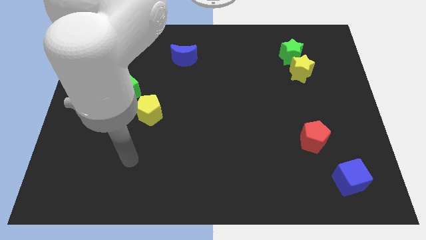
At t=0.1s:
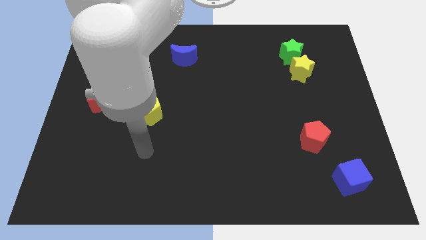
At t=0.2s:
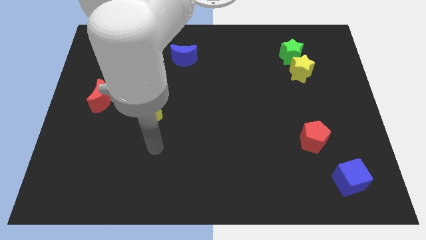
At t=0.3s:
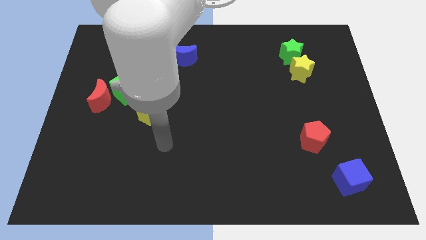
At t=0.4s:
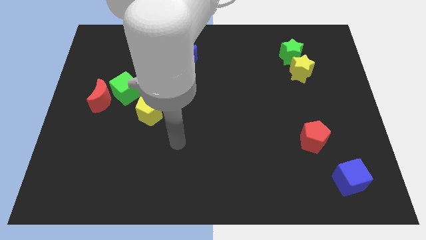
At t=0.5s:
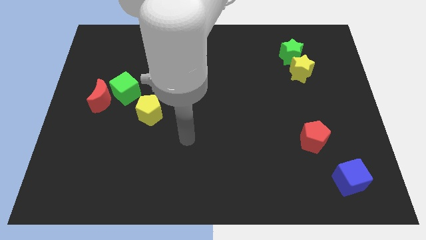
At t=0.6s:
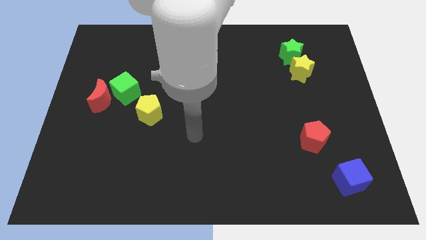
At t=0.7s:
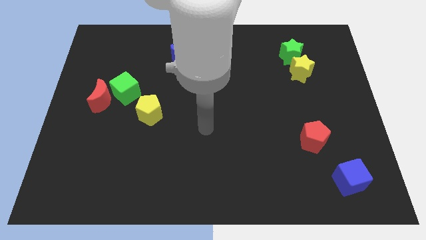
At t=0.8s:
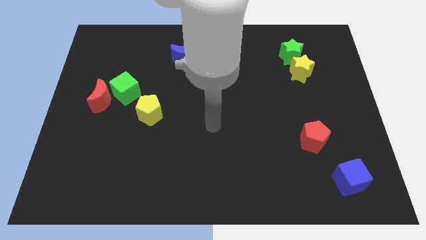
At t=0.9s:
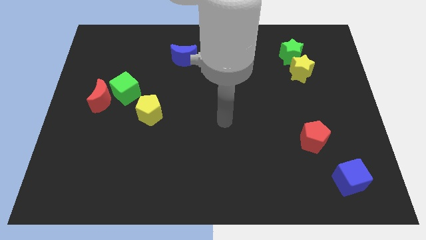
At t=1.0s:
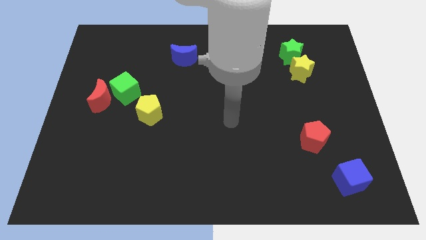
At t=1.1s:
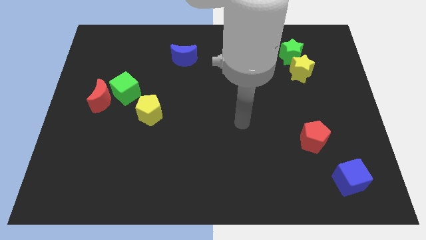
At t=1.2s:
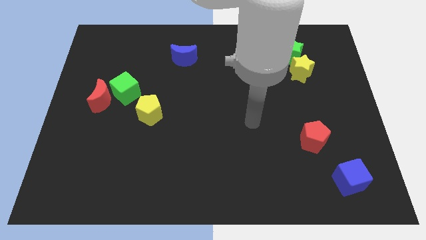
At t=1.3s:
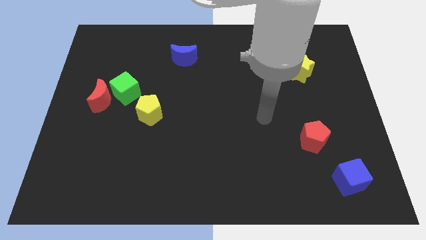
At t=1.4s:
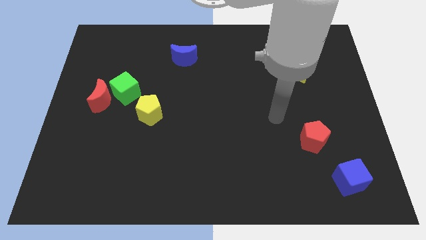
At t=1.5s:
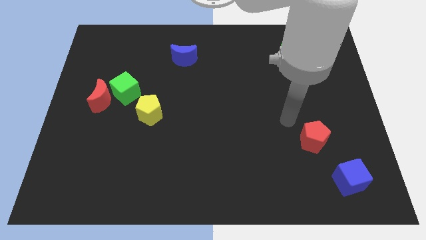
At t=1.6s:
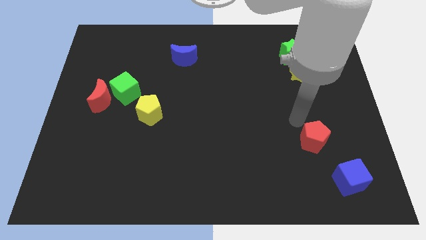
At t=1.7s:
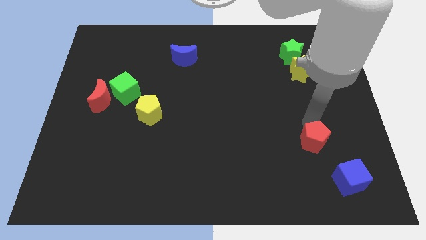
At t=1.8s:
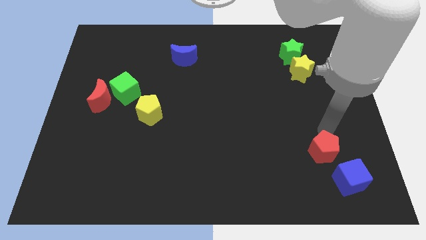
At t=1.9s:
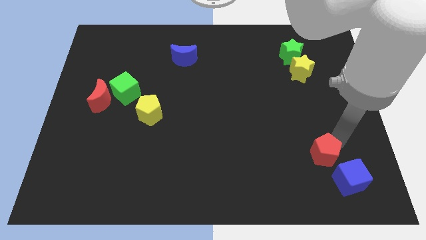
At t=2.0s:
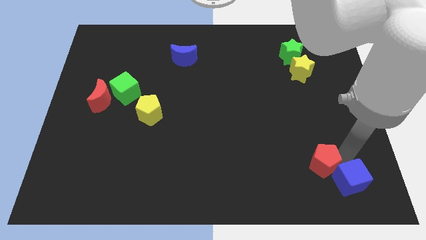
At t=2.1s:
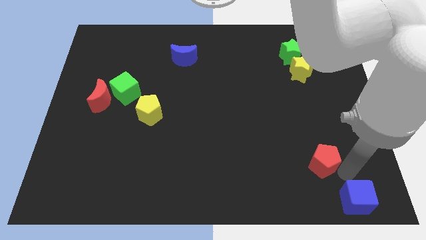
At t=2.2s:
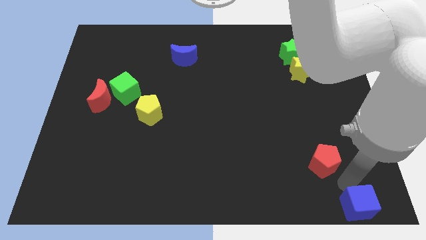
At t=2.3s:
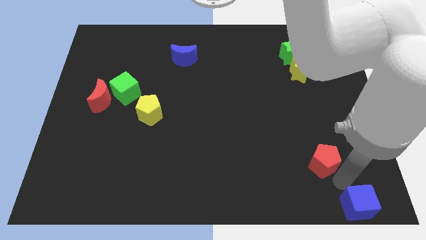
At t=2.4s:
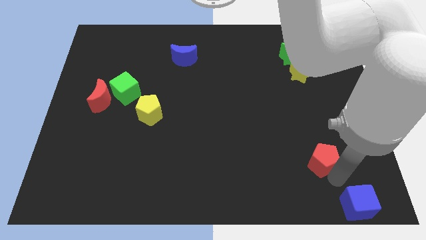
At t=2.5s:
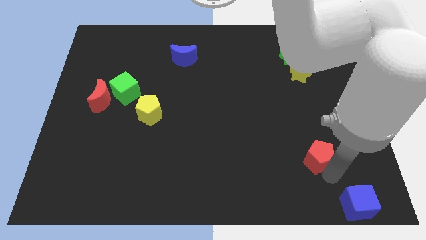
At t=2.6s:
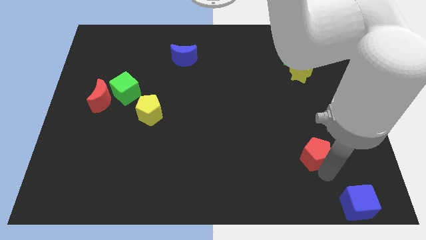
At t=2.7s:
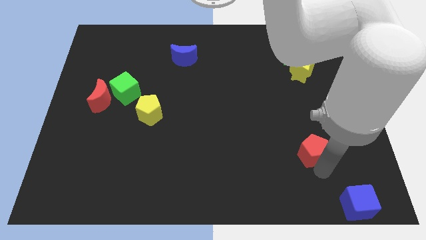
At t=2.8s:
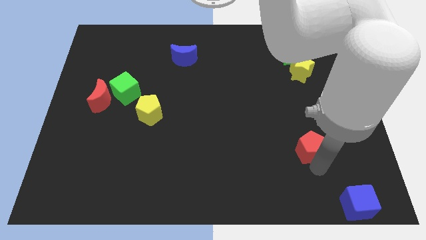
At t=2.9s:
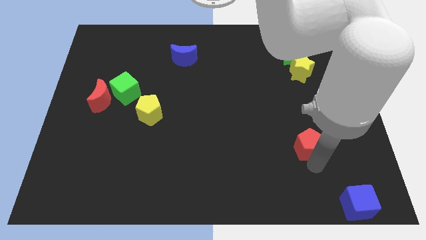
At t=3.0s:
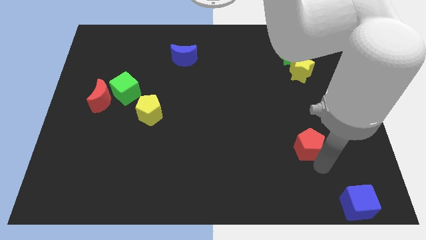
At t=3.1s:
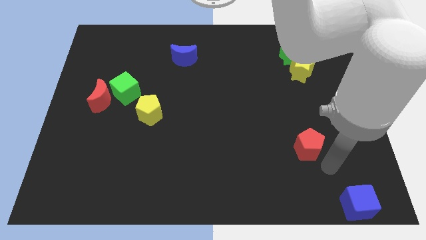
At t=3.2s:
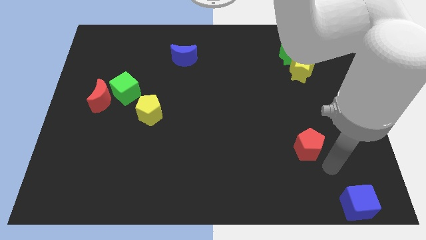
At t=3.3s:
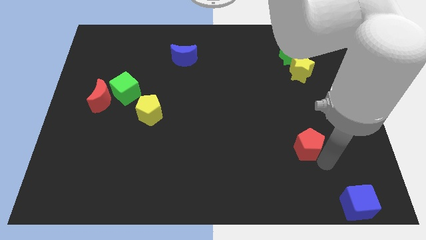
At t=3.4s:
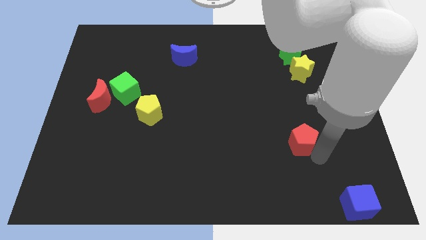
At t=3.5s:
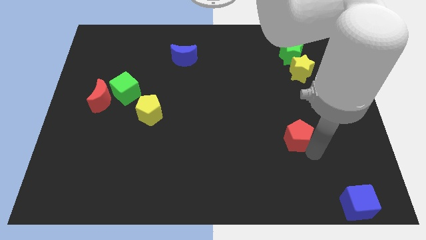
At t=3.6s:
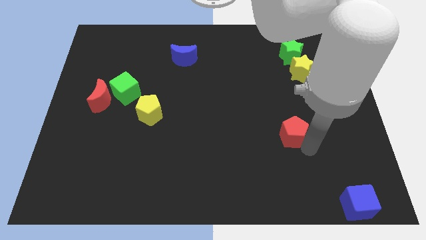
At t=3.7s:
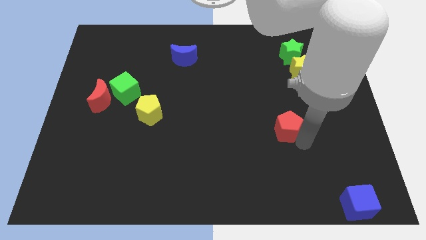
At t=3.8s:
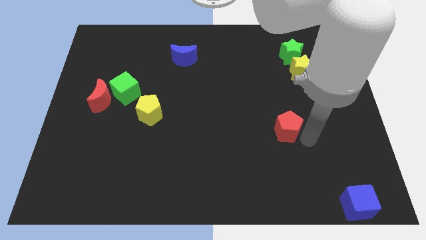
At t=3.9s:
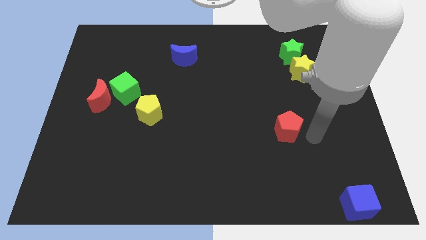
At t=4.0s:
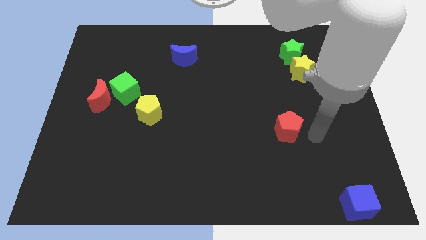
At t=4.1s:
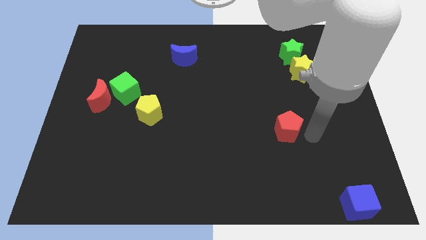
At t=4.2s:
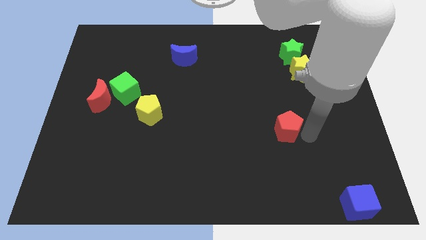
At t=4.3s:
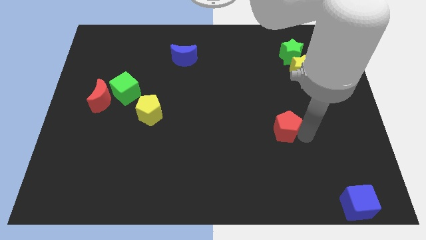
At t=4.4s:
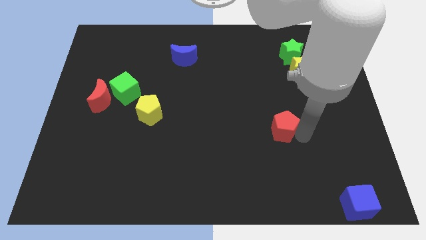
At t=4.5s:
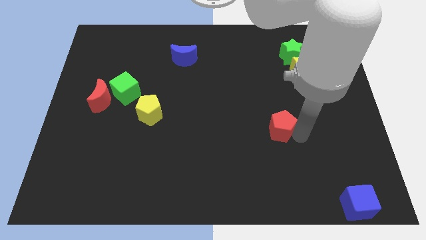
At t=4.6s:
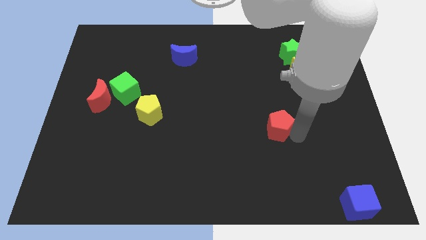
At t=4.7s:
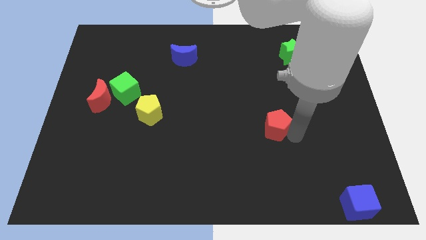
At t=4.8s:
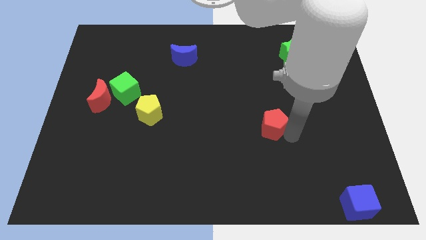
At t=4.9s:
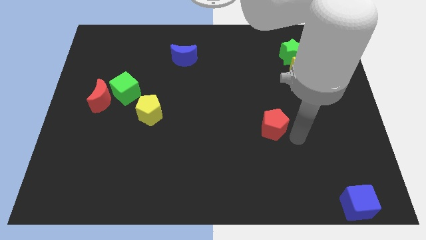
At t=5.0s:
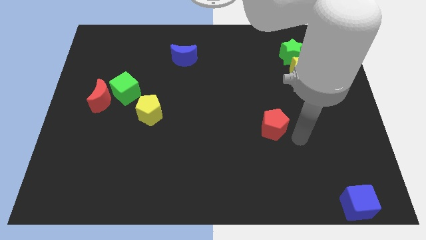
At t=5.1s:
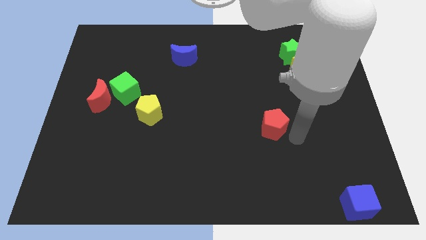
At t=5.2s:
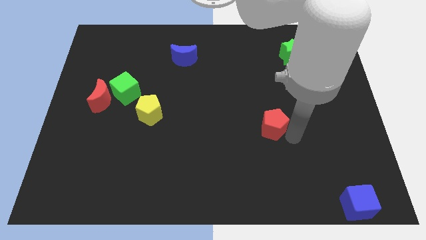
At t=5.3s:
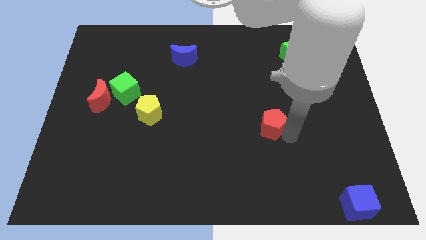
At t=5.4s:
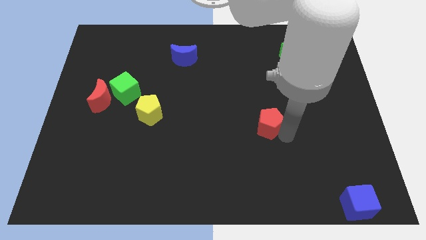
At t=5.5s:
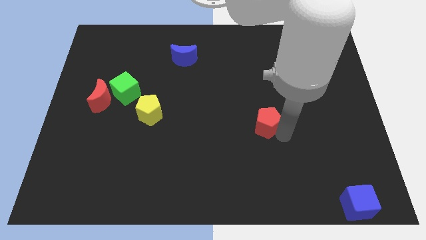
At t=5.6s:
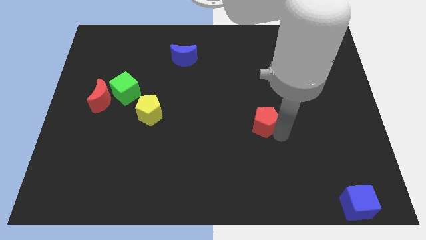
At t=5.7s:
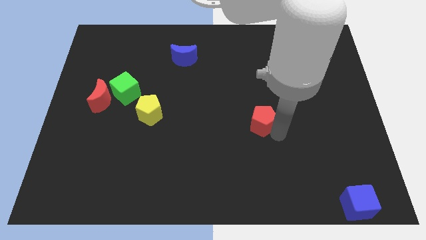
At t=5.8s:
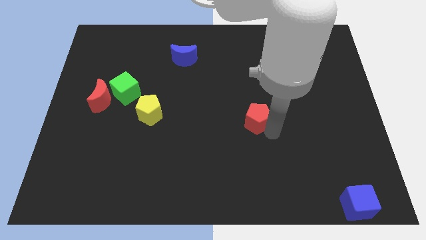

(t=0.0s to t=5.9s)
put the red pentagon to the middle of the board
